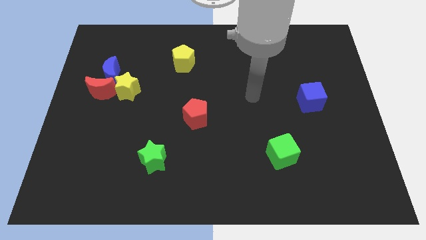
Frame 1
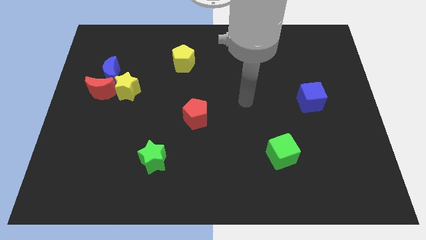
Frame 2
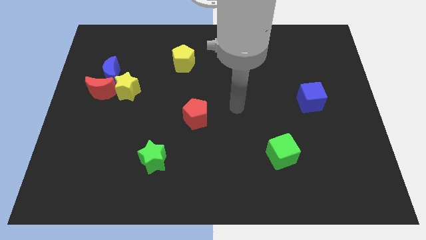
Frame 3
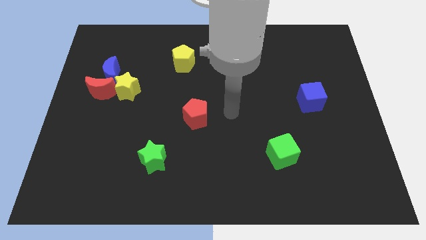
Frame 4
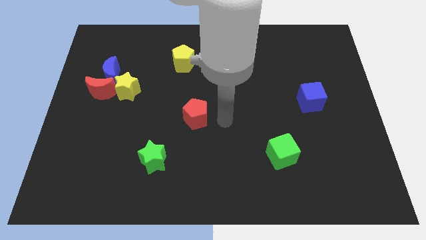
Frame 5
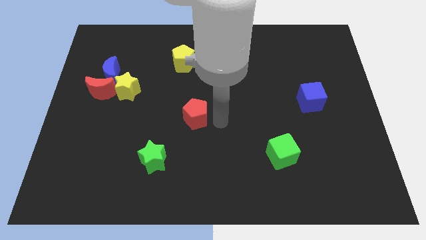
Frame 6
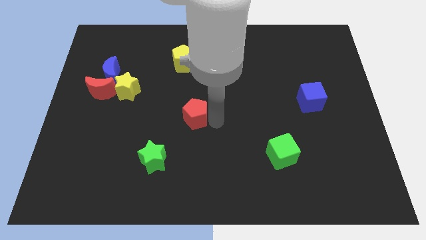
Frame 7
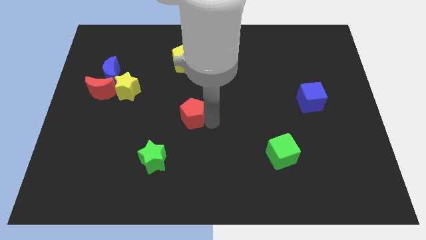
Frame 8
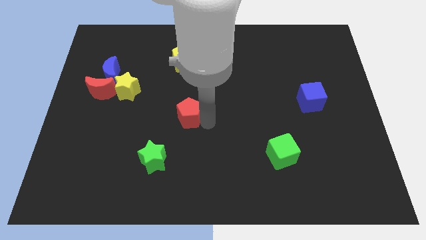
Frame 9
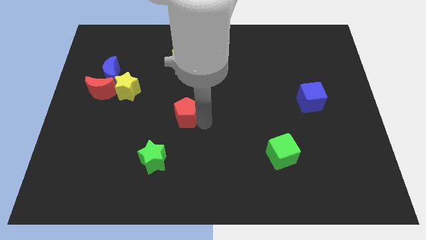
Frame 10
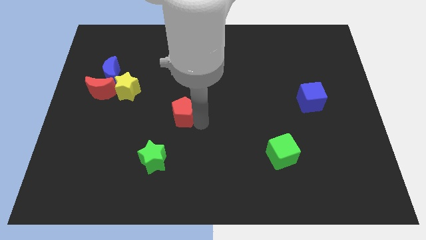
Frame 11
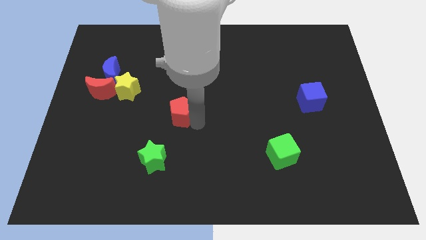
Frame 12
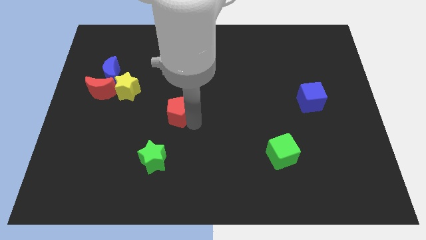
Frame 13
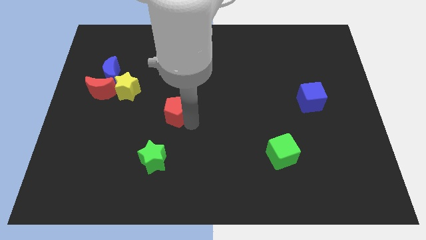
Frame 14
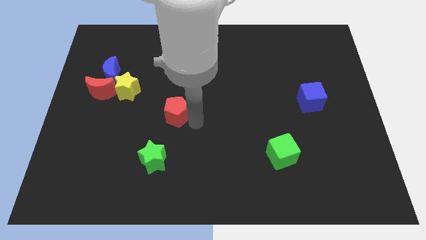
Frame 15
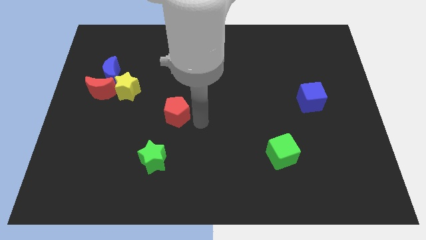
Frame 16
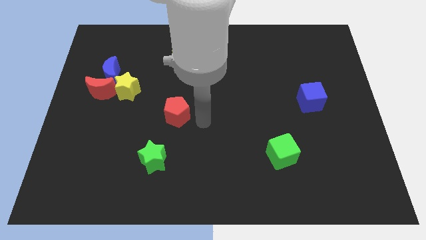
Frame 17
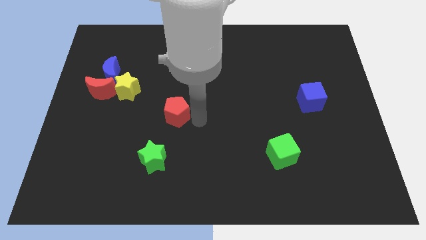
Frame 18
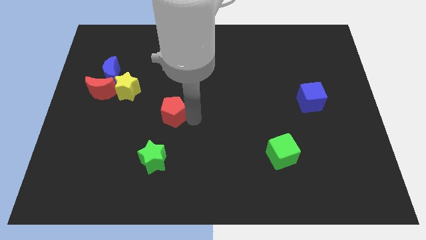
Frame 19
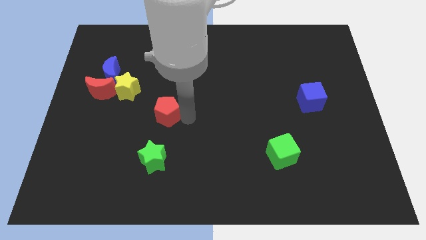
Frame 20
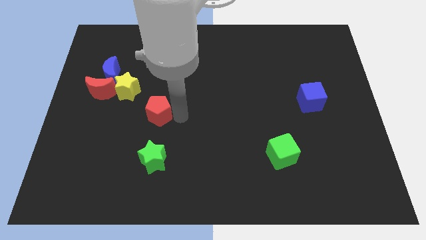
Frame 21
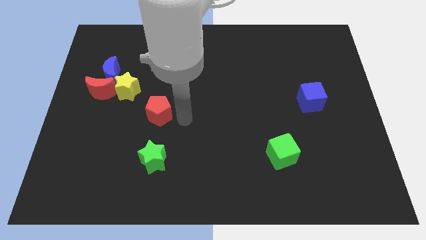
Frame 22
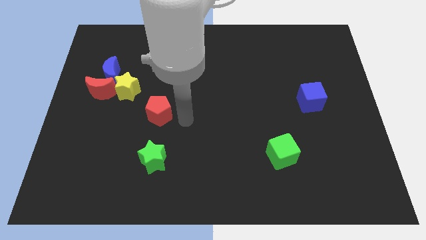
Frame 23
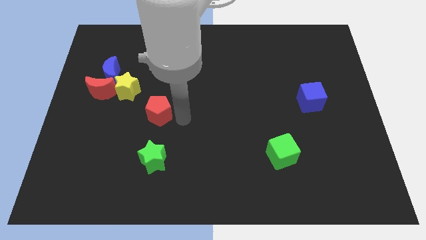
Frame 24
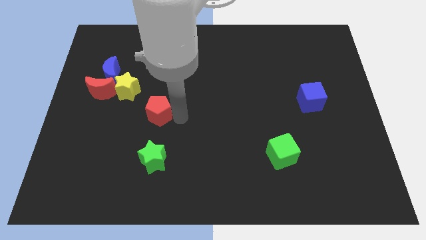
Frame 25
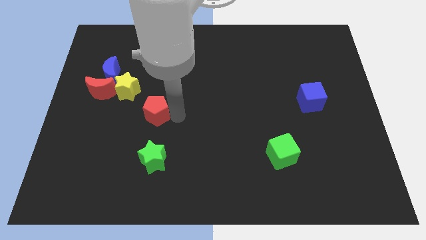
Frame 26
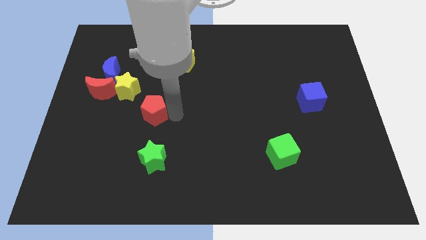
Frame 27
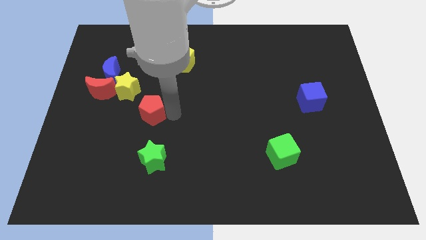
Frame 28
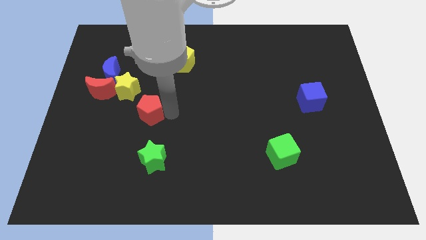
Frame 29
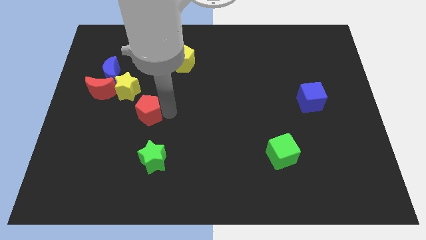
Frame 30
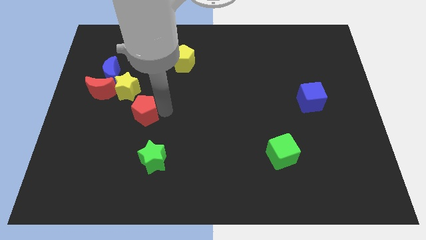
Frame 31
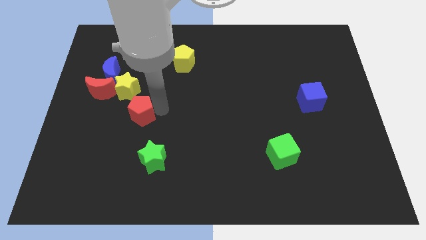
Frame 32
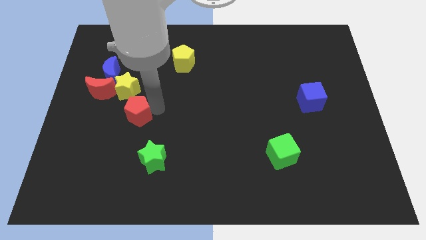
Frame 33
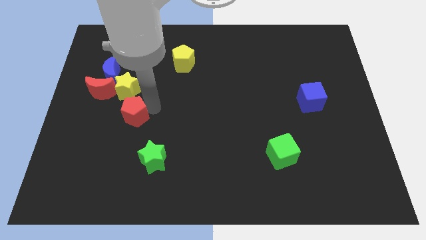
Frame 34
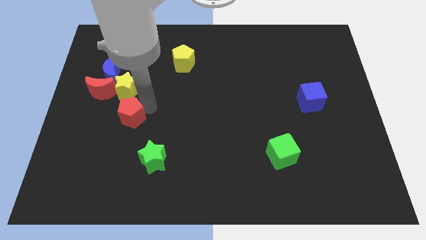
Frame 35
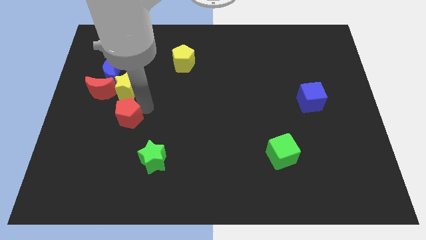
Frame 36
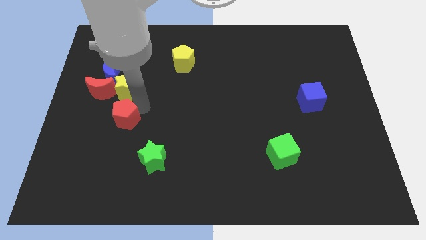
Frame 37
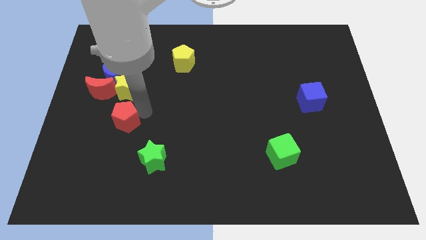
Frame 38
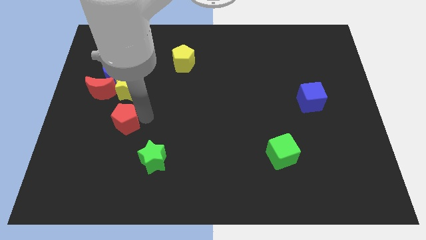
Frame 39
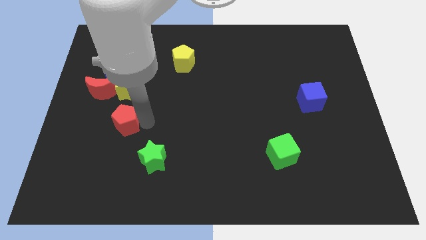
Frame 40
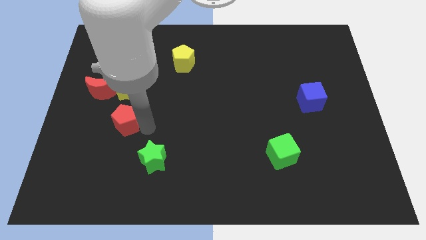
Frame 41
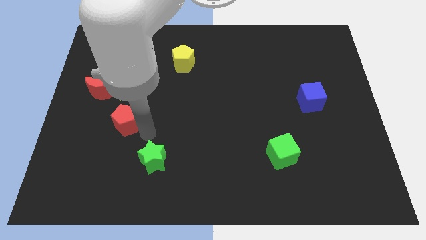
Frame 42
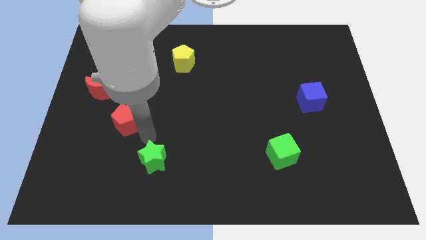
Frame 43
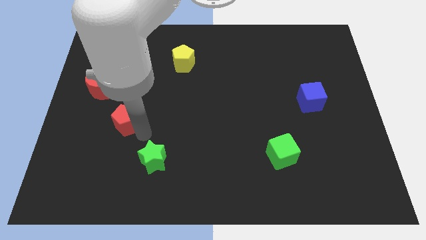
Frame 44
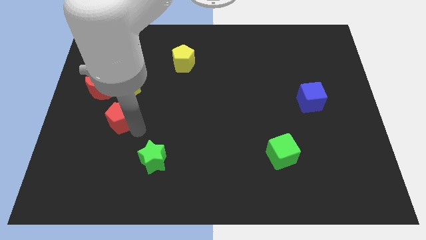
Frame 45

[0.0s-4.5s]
push the red pentagon to the bottom side of the blue moon

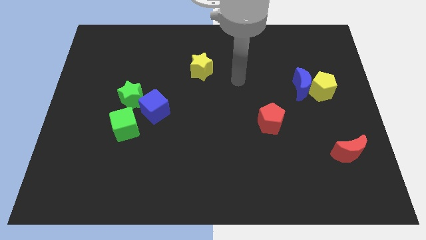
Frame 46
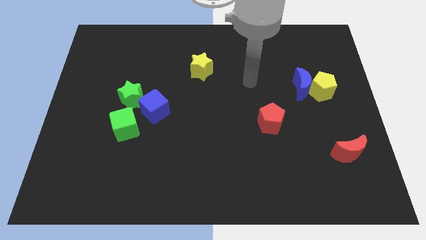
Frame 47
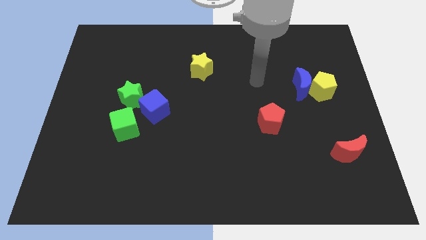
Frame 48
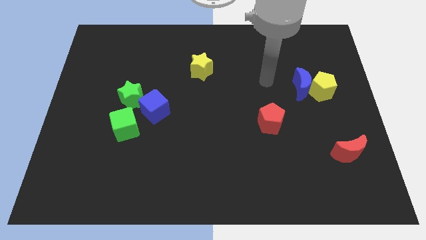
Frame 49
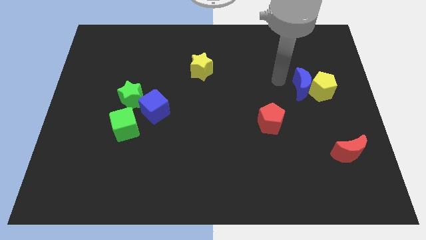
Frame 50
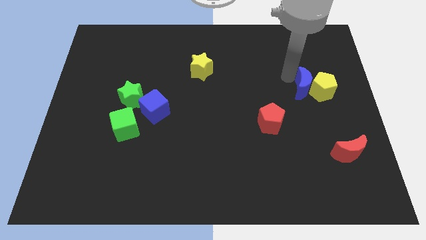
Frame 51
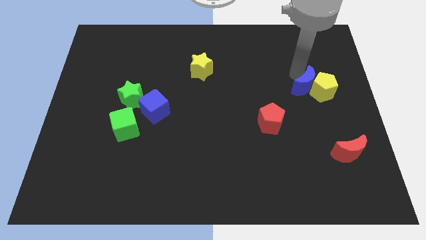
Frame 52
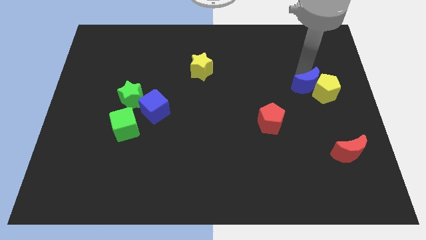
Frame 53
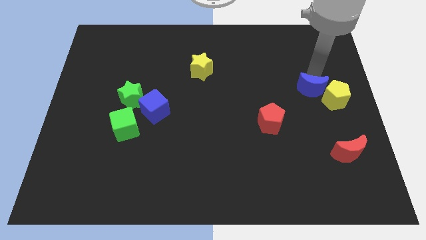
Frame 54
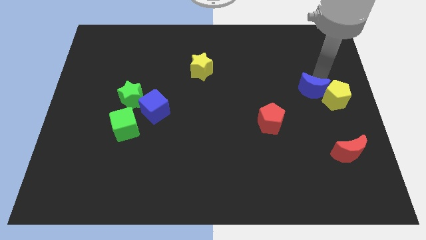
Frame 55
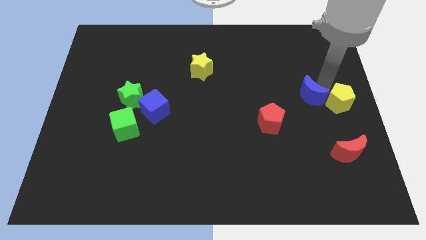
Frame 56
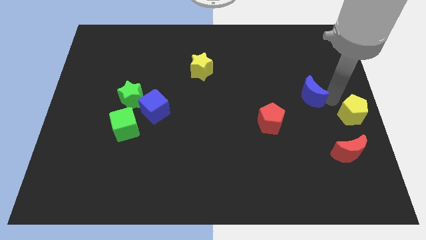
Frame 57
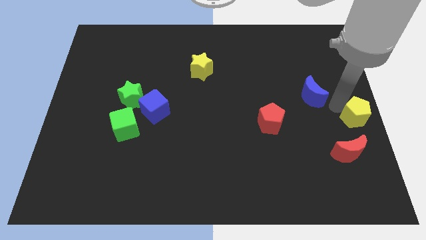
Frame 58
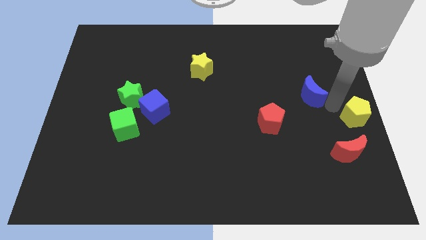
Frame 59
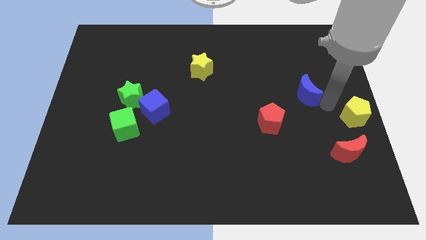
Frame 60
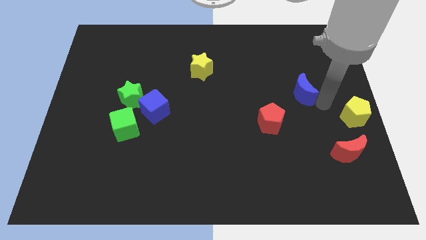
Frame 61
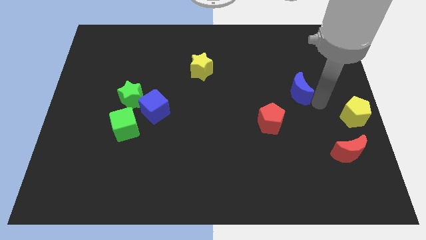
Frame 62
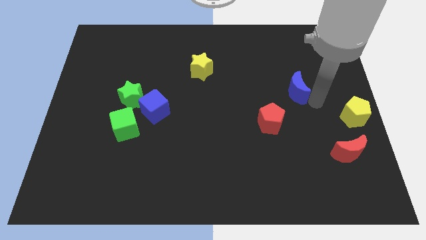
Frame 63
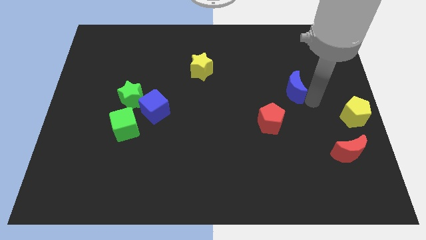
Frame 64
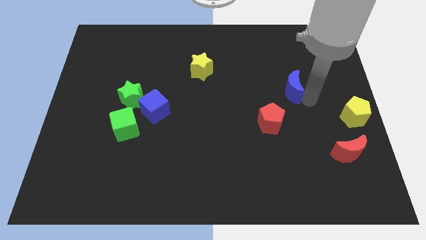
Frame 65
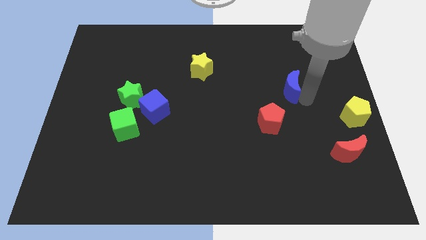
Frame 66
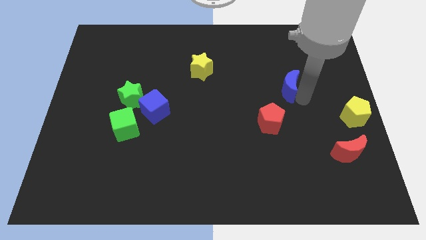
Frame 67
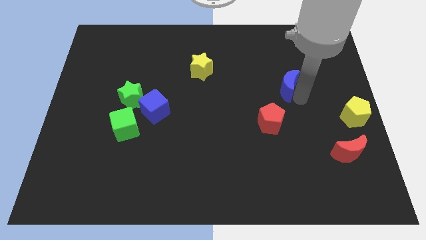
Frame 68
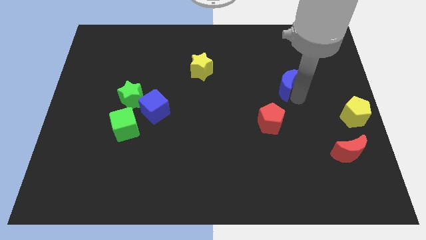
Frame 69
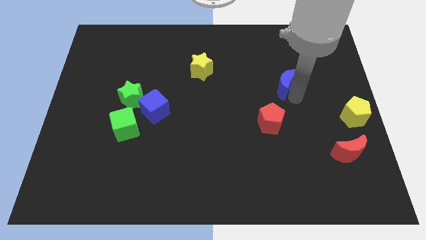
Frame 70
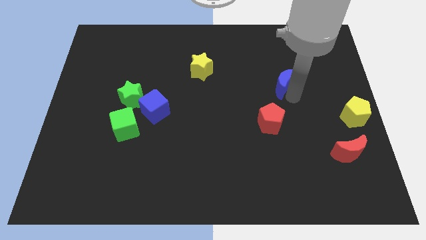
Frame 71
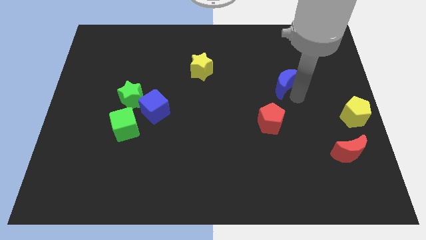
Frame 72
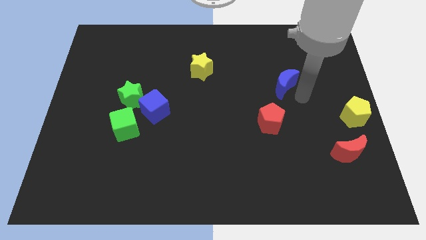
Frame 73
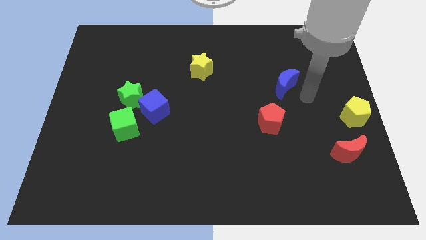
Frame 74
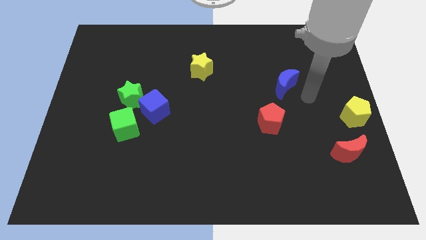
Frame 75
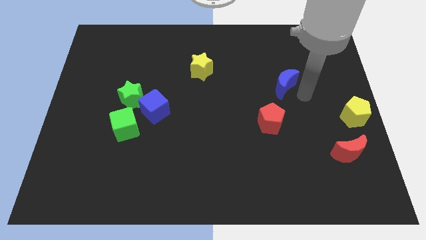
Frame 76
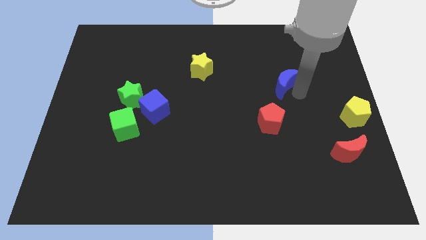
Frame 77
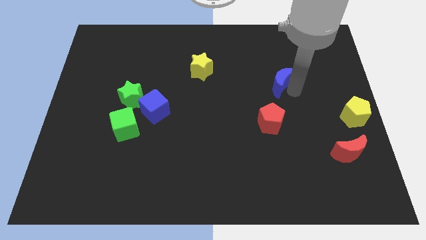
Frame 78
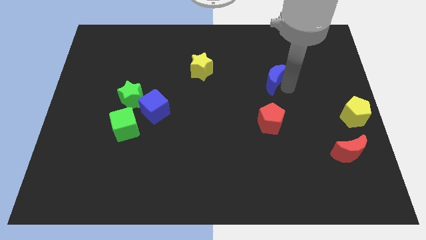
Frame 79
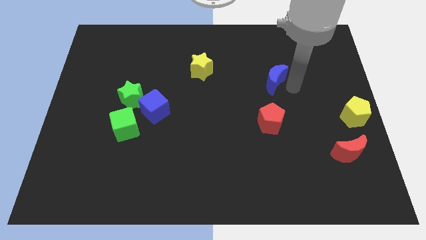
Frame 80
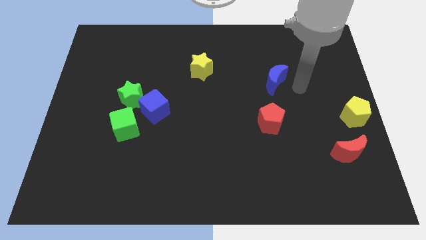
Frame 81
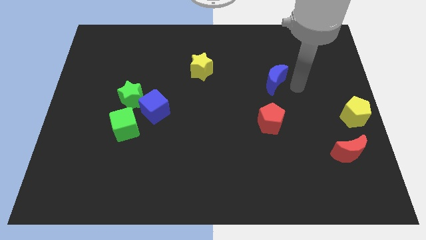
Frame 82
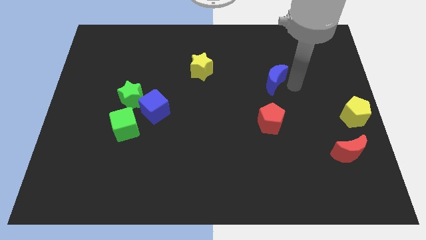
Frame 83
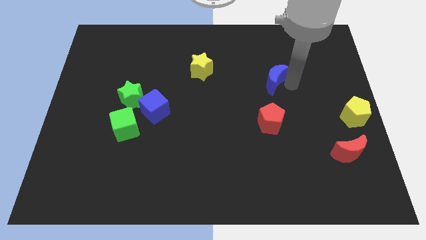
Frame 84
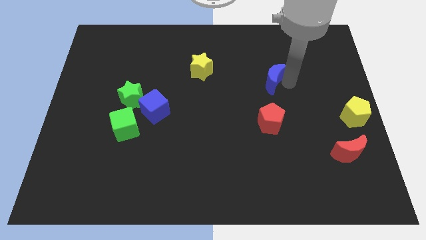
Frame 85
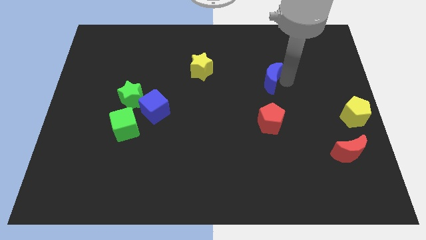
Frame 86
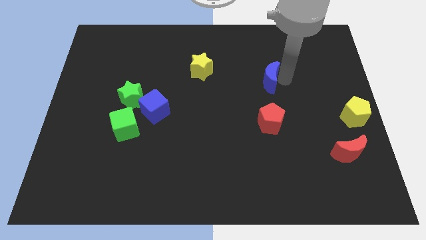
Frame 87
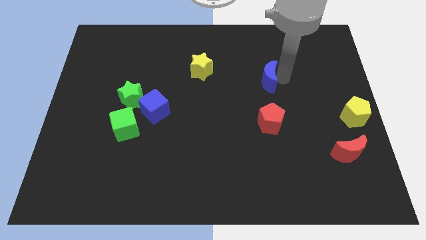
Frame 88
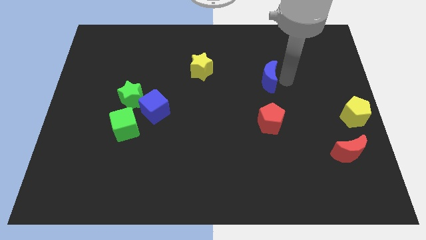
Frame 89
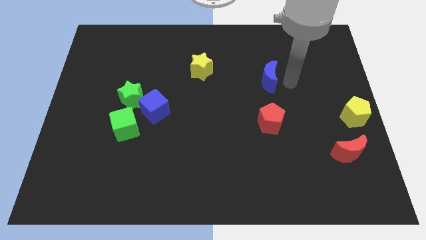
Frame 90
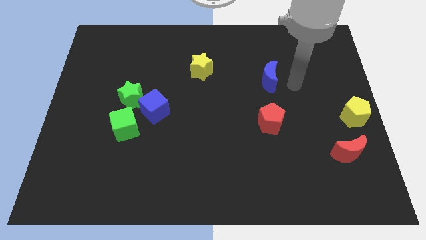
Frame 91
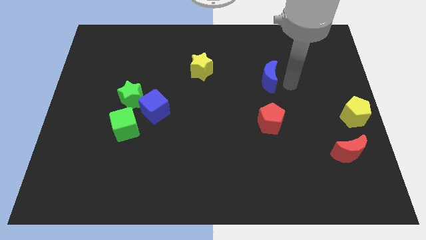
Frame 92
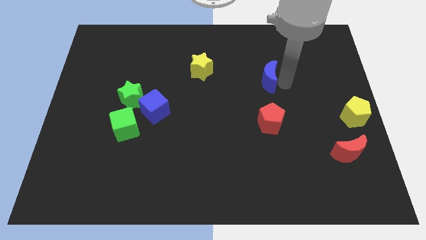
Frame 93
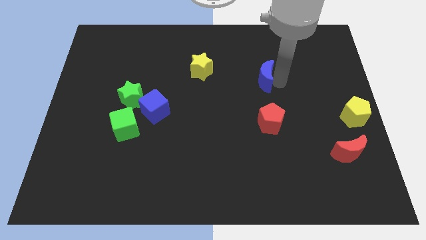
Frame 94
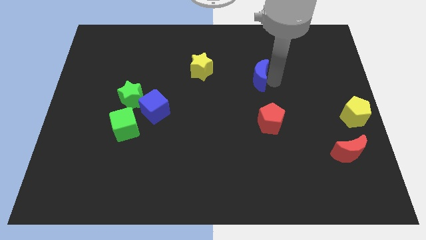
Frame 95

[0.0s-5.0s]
move the blue moon to the right of the yellow star
